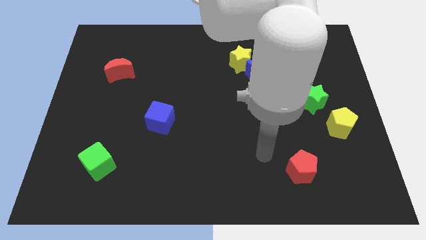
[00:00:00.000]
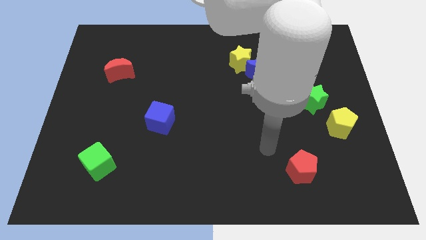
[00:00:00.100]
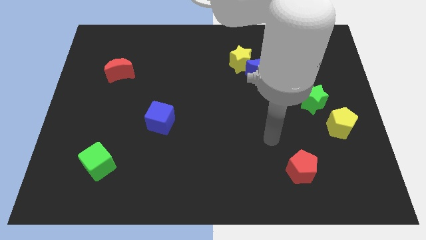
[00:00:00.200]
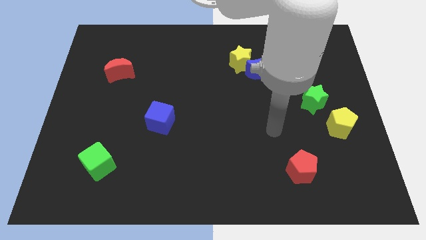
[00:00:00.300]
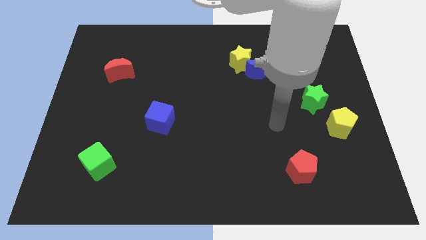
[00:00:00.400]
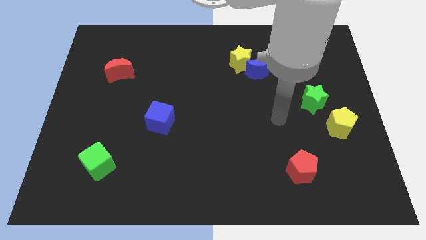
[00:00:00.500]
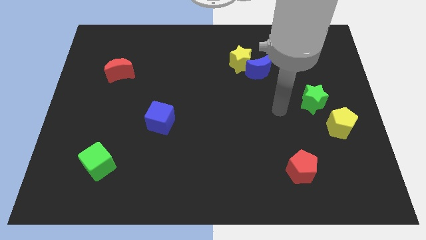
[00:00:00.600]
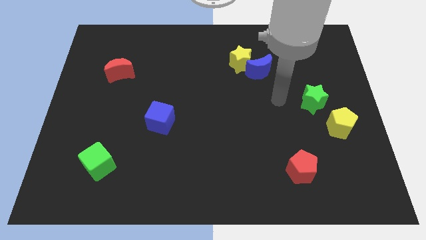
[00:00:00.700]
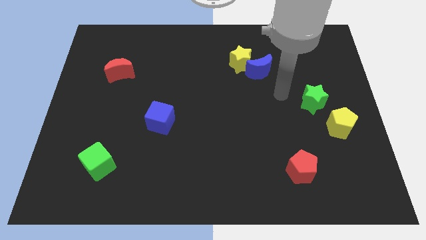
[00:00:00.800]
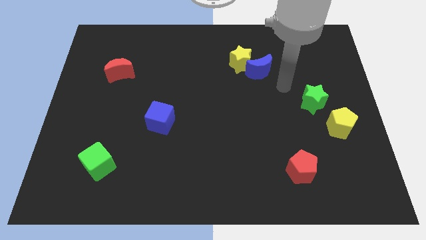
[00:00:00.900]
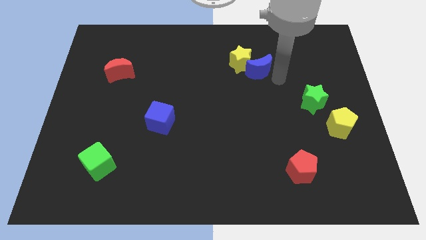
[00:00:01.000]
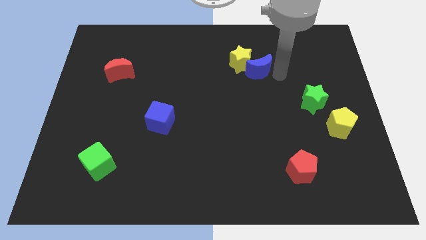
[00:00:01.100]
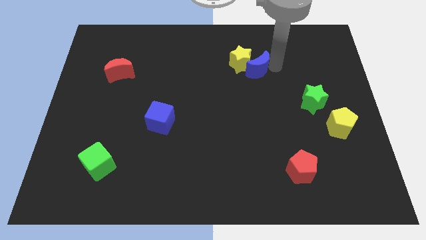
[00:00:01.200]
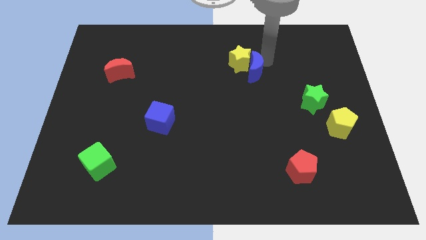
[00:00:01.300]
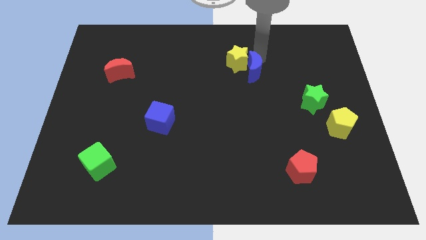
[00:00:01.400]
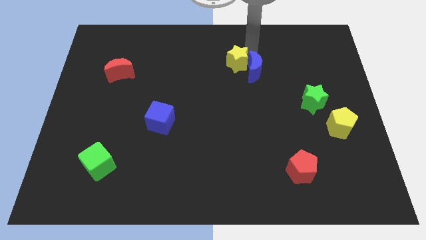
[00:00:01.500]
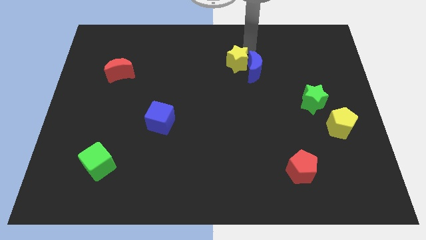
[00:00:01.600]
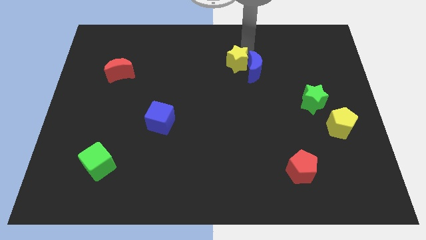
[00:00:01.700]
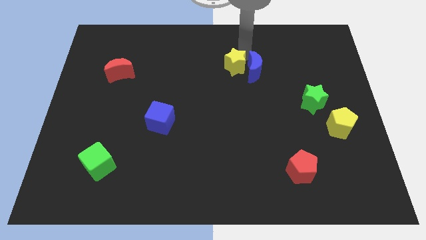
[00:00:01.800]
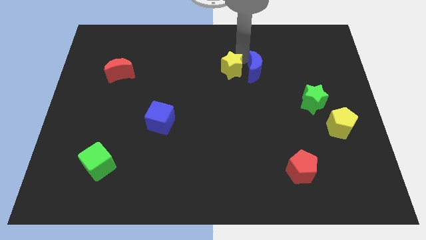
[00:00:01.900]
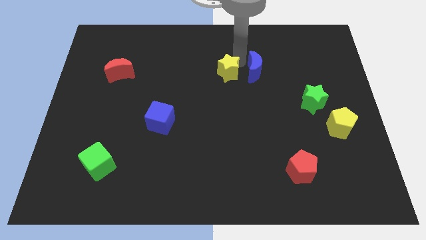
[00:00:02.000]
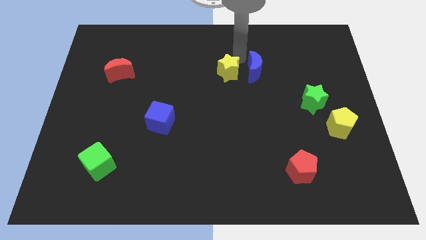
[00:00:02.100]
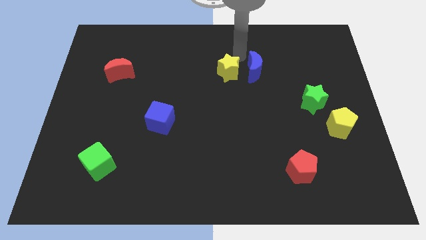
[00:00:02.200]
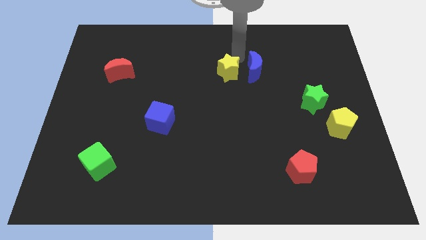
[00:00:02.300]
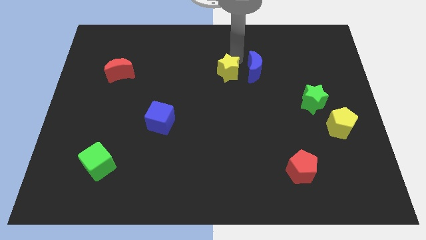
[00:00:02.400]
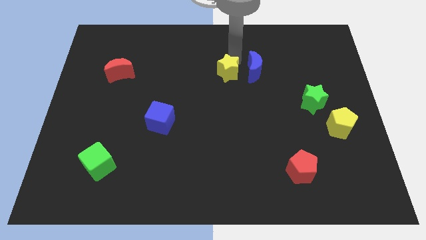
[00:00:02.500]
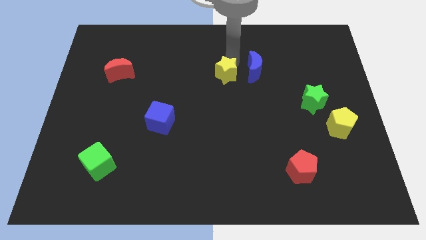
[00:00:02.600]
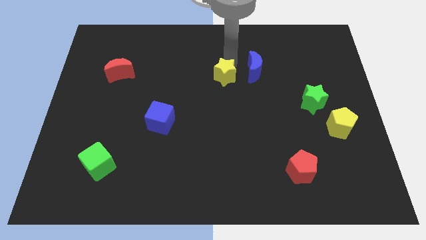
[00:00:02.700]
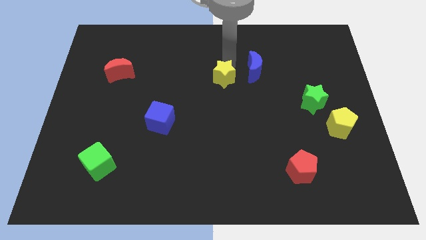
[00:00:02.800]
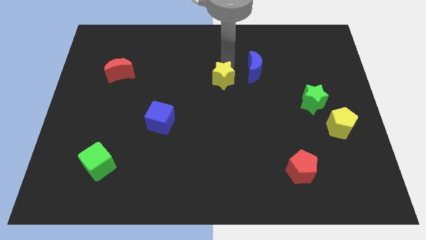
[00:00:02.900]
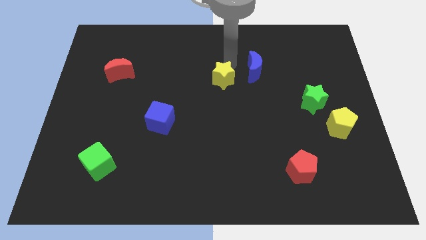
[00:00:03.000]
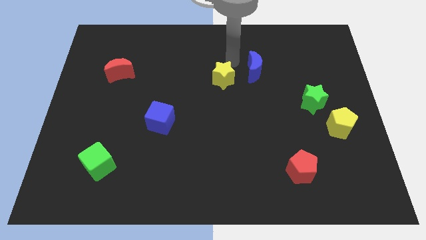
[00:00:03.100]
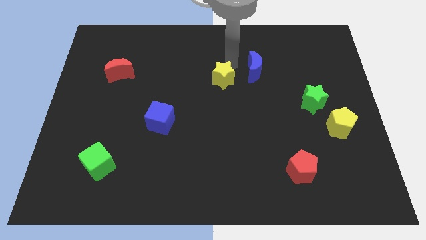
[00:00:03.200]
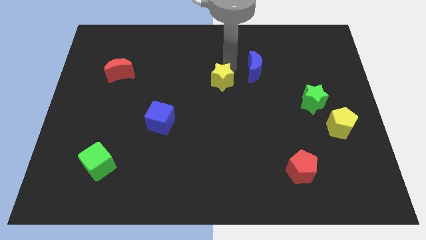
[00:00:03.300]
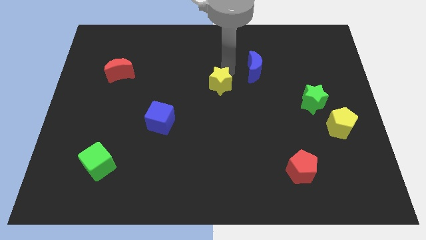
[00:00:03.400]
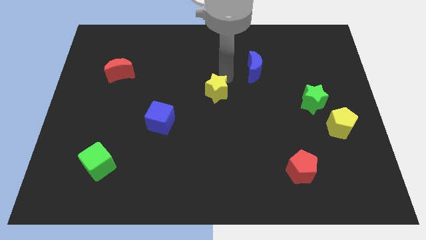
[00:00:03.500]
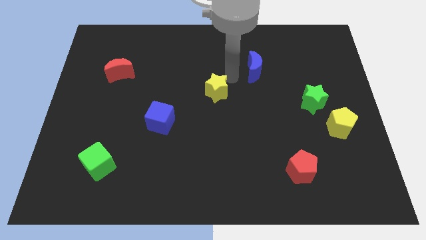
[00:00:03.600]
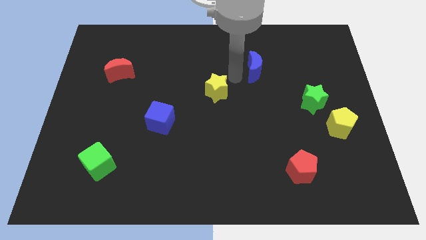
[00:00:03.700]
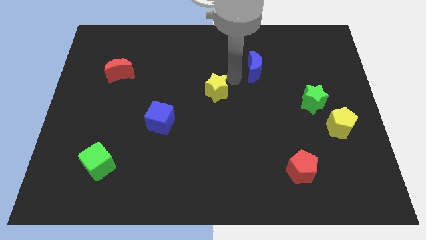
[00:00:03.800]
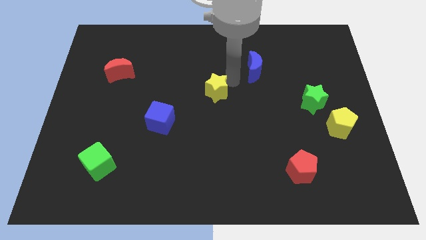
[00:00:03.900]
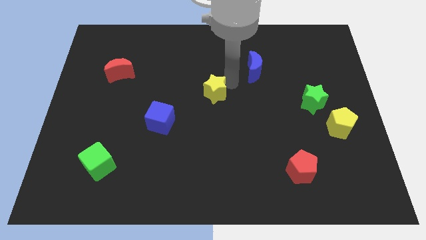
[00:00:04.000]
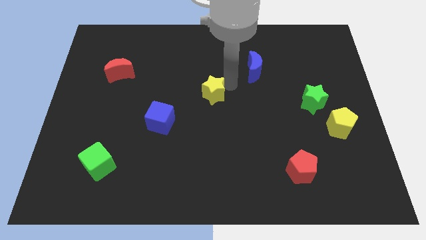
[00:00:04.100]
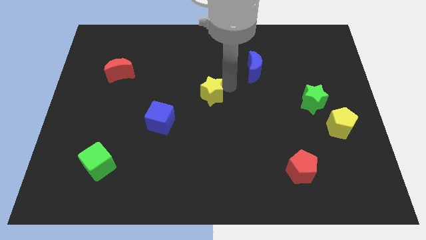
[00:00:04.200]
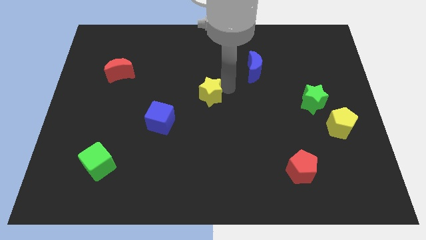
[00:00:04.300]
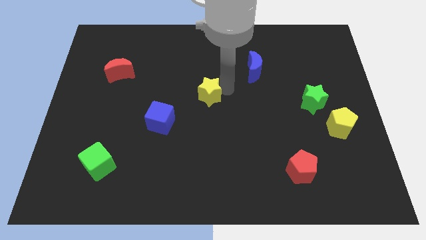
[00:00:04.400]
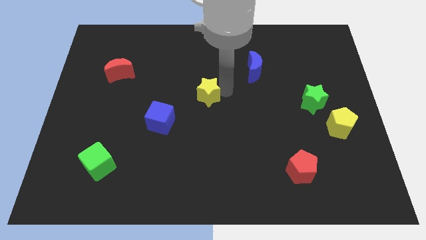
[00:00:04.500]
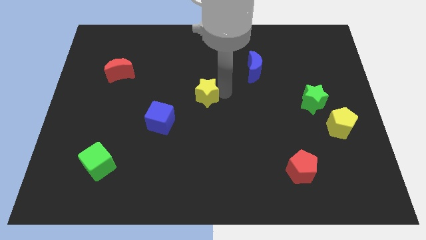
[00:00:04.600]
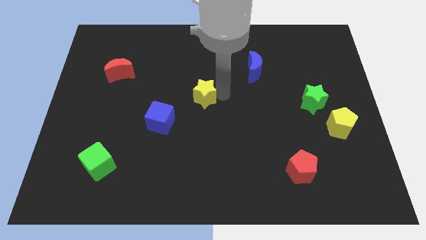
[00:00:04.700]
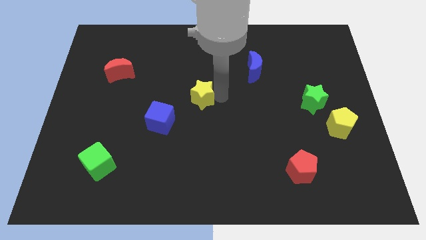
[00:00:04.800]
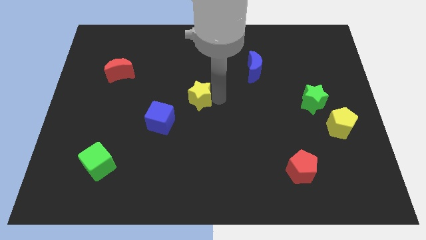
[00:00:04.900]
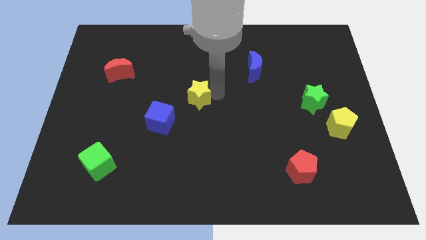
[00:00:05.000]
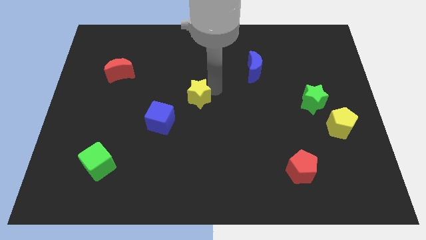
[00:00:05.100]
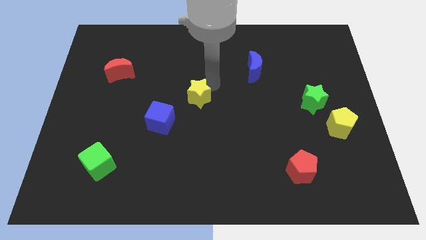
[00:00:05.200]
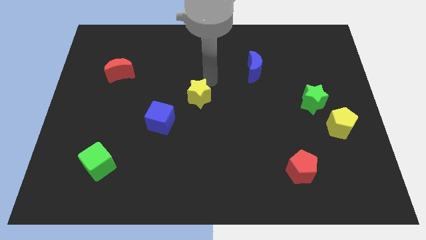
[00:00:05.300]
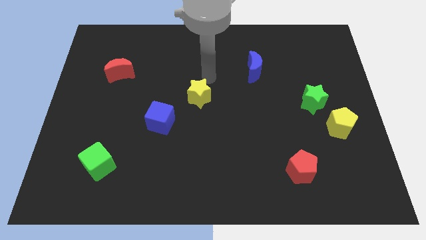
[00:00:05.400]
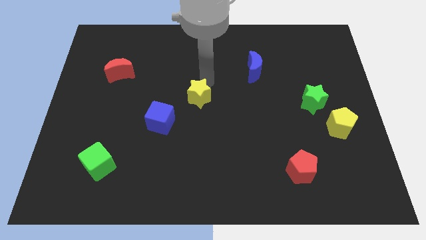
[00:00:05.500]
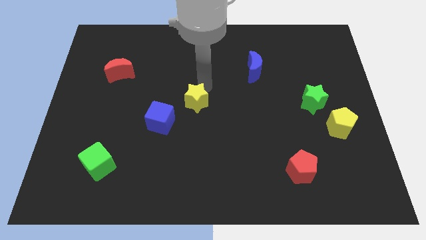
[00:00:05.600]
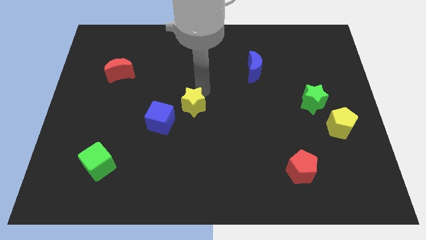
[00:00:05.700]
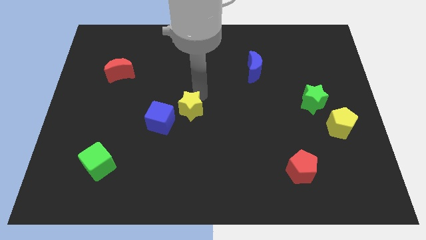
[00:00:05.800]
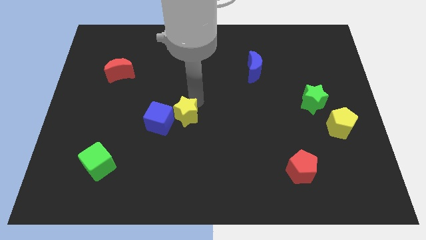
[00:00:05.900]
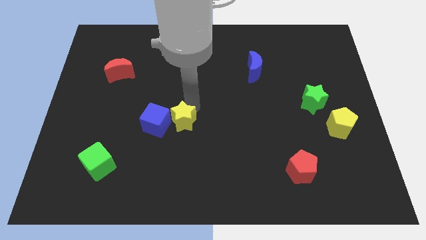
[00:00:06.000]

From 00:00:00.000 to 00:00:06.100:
push the yellow star to the bottom right of the blue cube

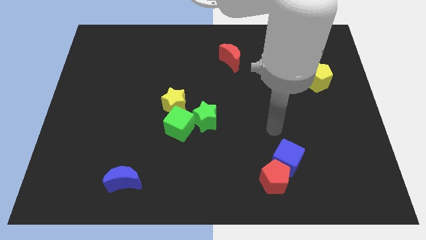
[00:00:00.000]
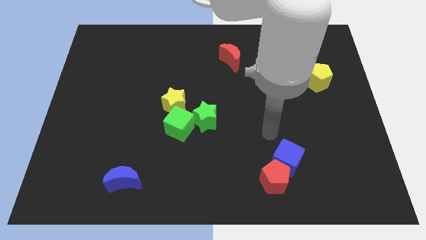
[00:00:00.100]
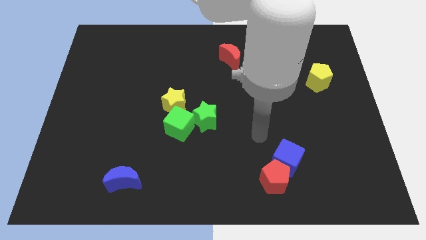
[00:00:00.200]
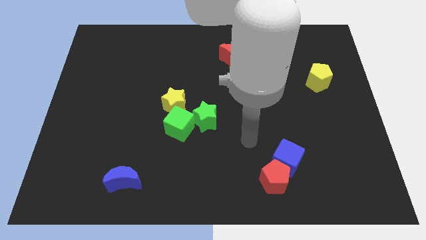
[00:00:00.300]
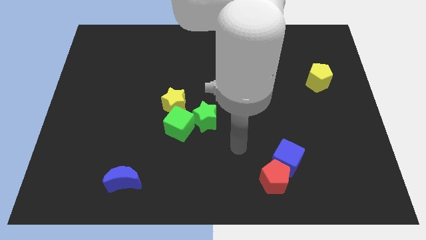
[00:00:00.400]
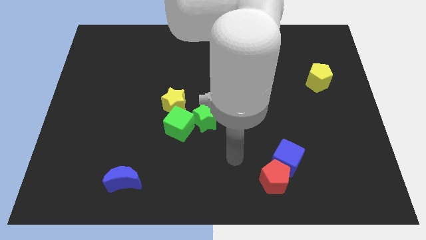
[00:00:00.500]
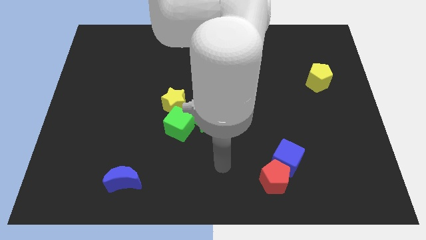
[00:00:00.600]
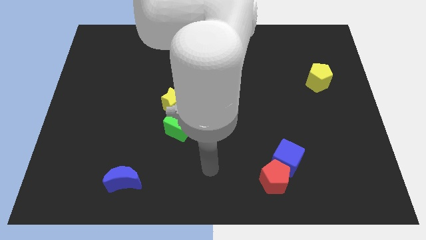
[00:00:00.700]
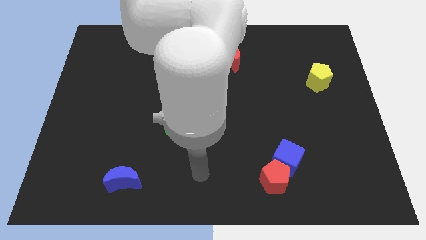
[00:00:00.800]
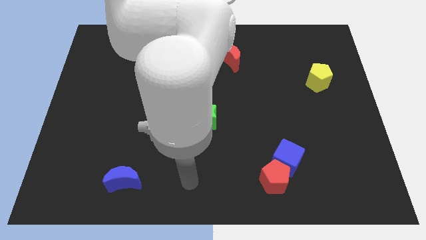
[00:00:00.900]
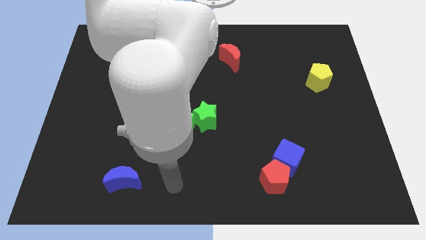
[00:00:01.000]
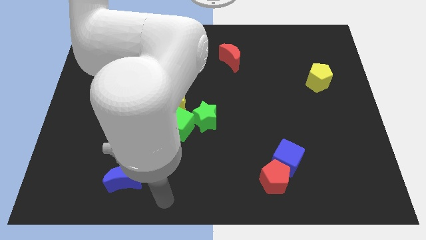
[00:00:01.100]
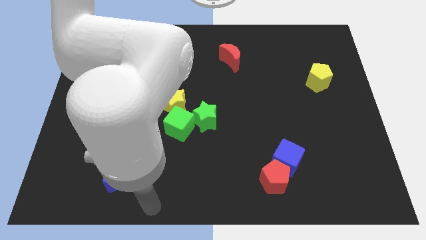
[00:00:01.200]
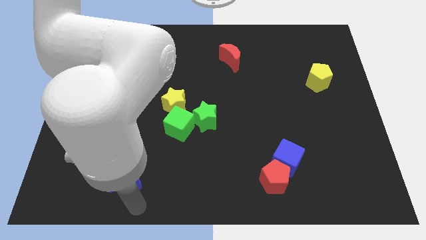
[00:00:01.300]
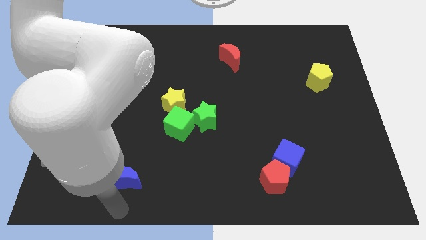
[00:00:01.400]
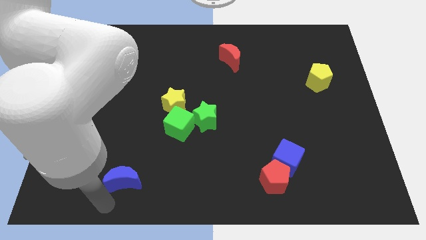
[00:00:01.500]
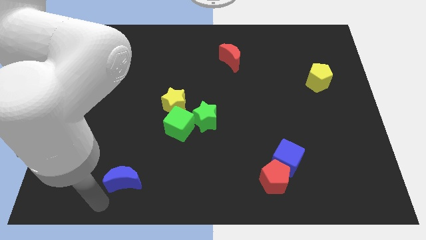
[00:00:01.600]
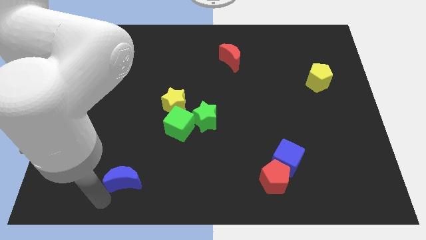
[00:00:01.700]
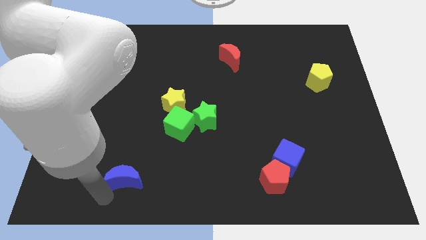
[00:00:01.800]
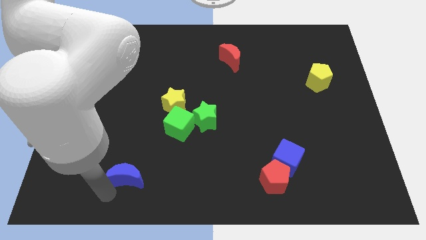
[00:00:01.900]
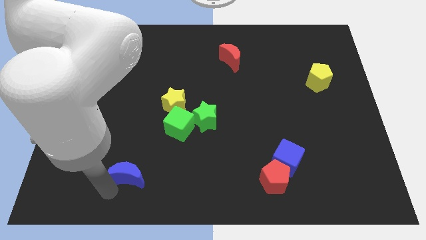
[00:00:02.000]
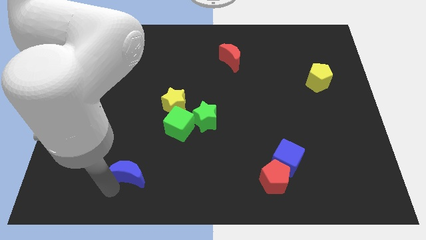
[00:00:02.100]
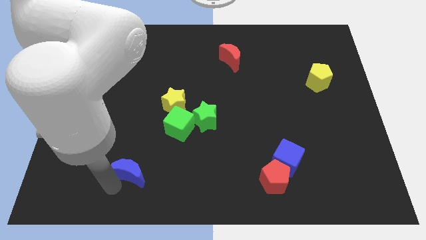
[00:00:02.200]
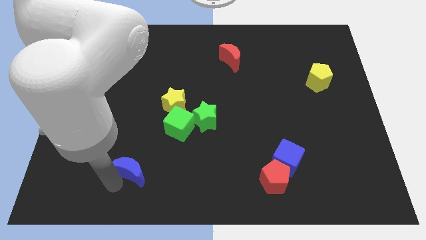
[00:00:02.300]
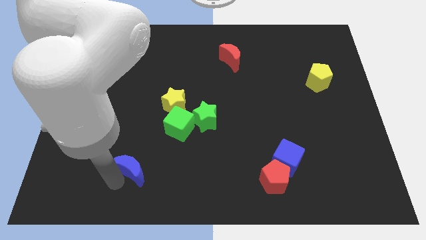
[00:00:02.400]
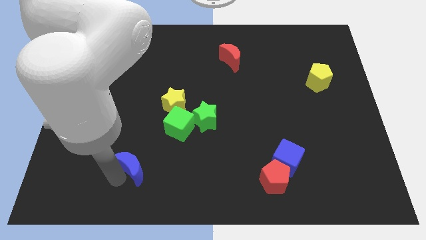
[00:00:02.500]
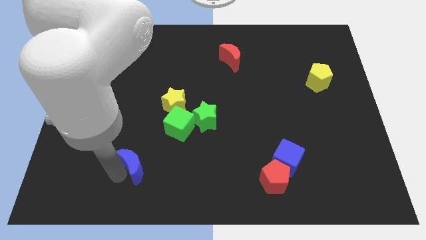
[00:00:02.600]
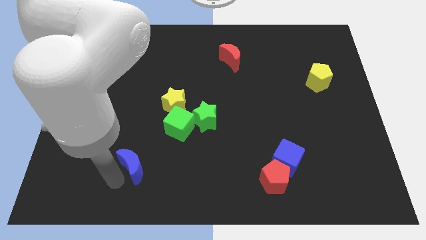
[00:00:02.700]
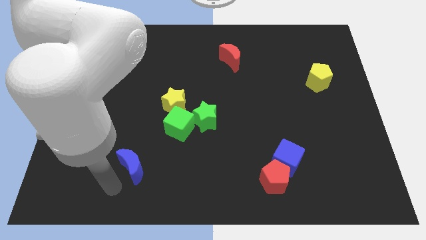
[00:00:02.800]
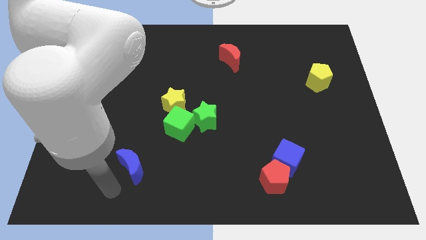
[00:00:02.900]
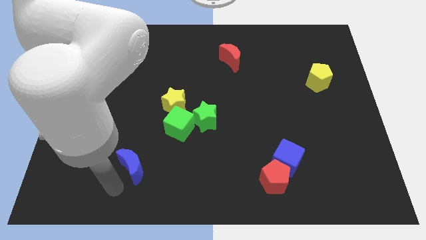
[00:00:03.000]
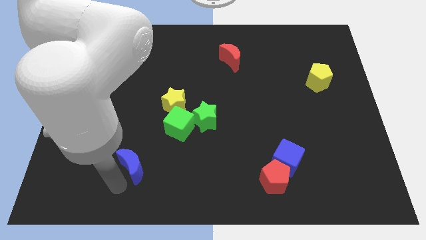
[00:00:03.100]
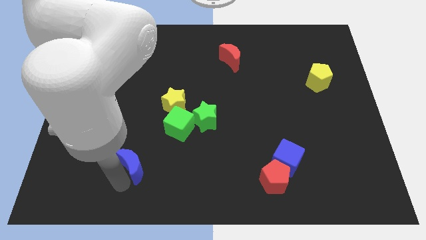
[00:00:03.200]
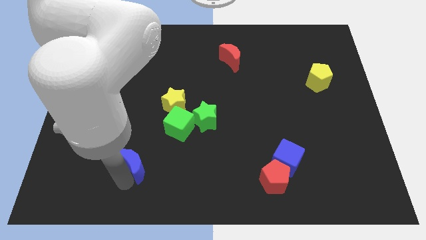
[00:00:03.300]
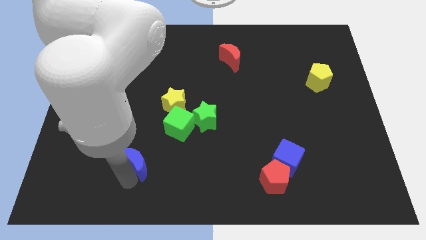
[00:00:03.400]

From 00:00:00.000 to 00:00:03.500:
put the blue moon to the bottom left of the green cube
